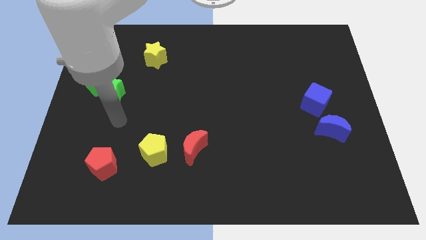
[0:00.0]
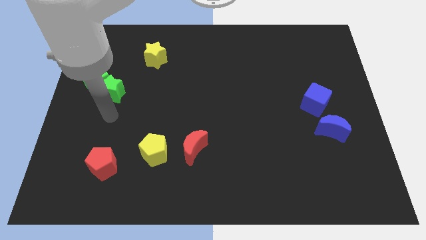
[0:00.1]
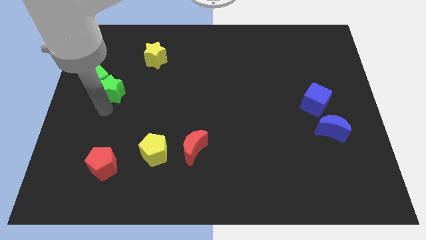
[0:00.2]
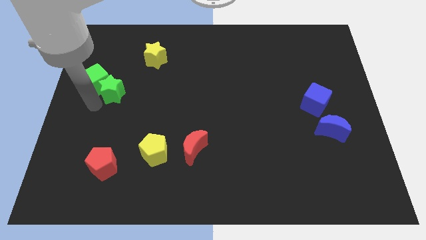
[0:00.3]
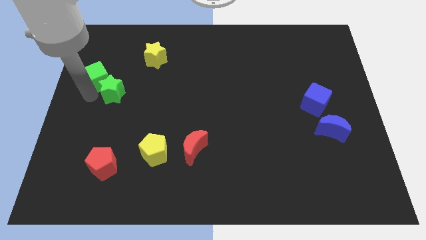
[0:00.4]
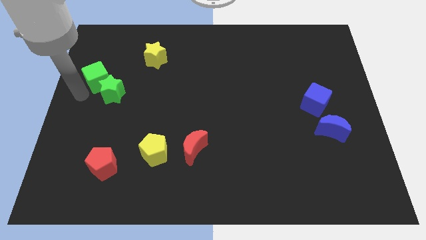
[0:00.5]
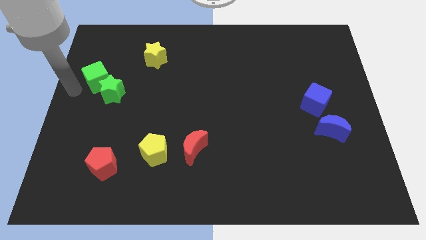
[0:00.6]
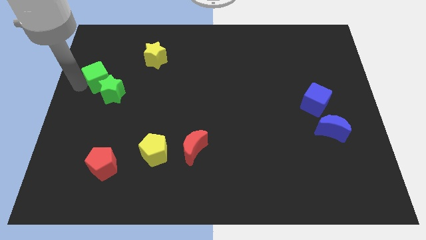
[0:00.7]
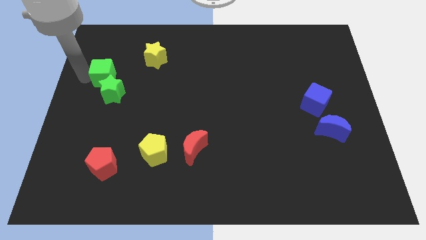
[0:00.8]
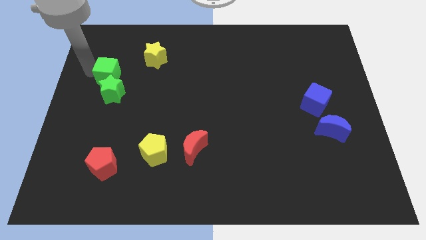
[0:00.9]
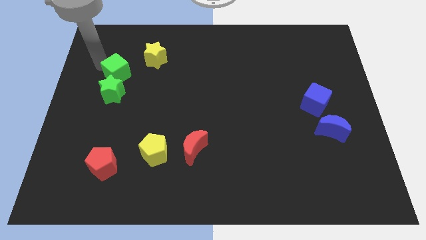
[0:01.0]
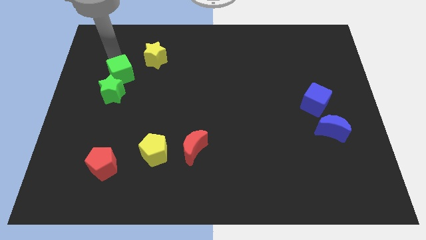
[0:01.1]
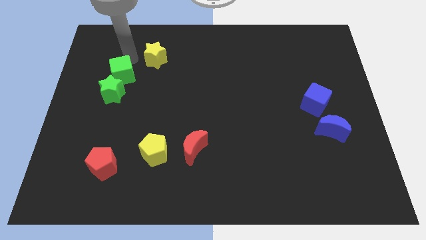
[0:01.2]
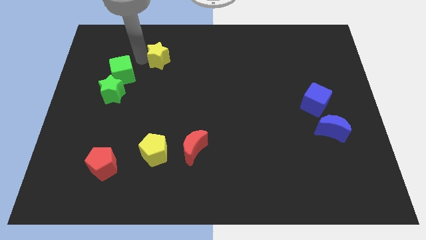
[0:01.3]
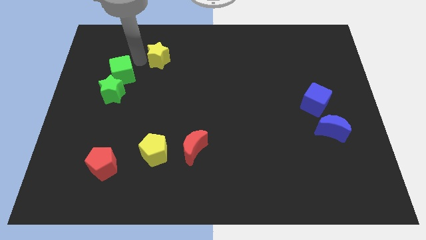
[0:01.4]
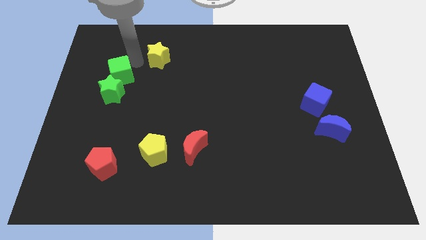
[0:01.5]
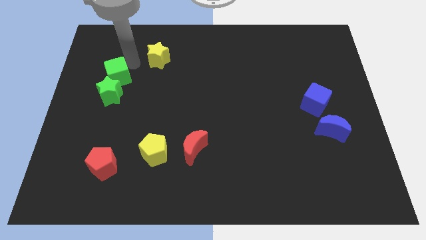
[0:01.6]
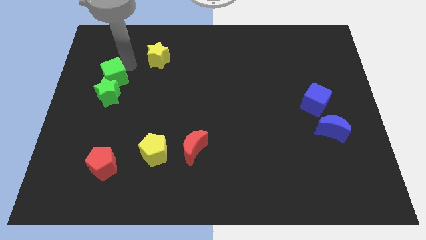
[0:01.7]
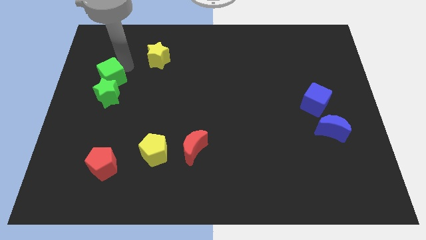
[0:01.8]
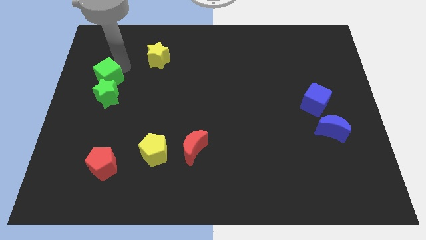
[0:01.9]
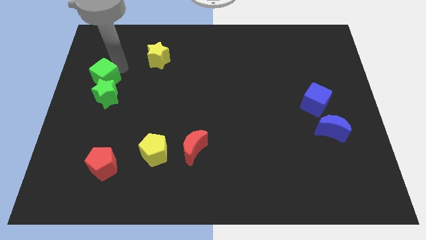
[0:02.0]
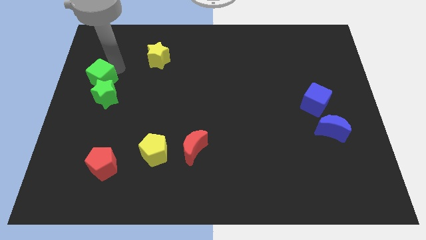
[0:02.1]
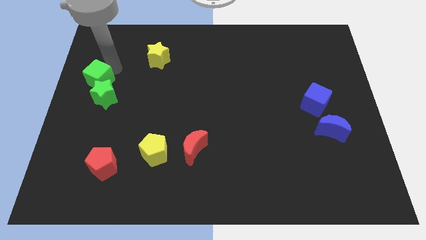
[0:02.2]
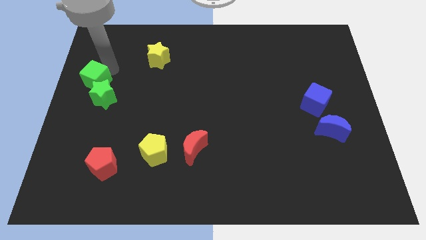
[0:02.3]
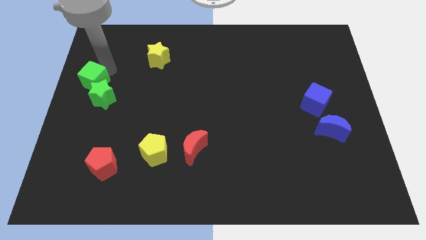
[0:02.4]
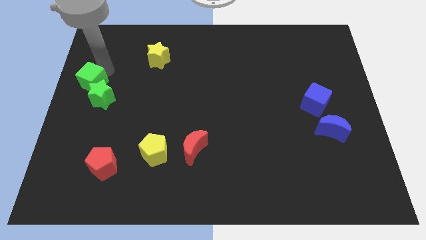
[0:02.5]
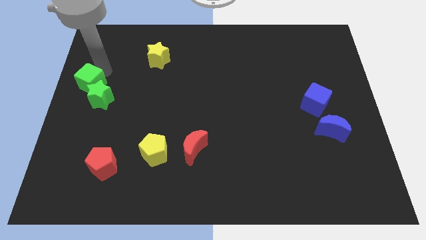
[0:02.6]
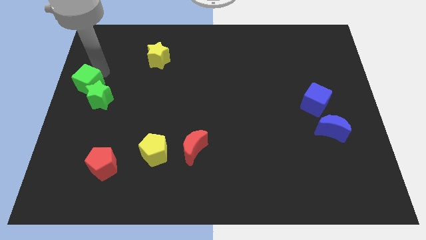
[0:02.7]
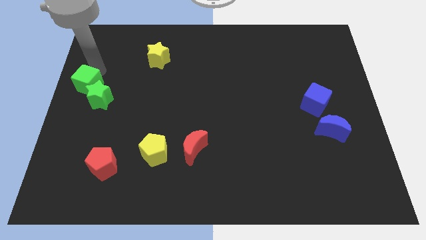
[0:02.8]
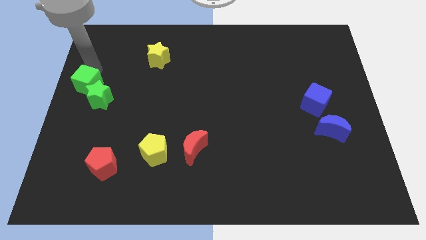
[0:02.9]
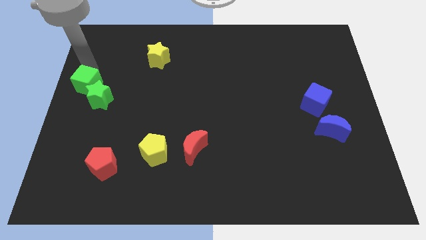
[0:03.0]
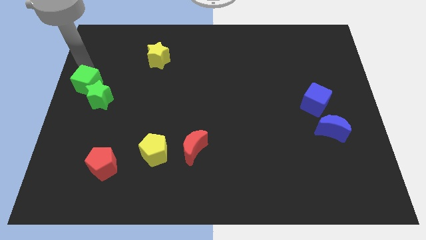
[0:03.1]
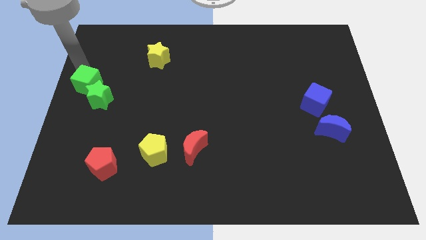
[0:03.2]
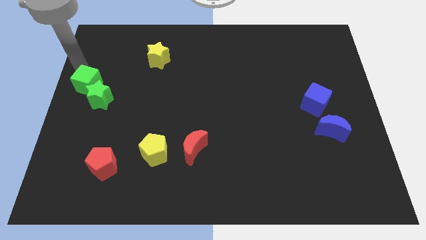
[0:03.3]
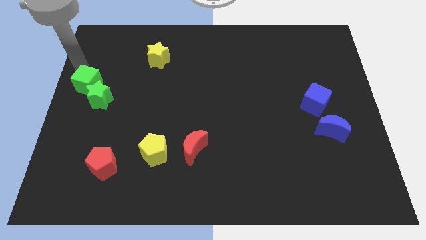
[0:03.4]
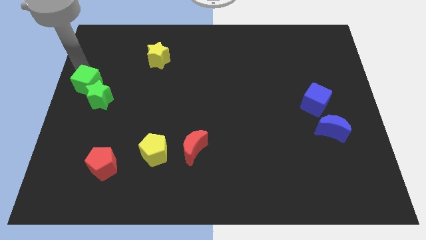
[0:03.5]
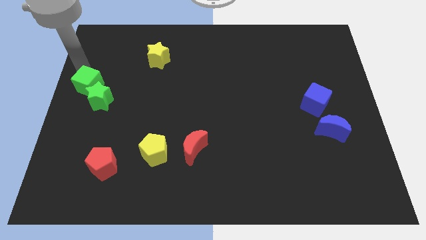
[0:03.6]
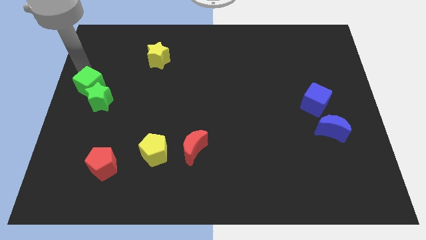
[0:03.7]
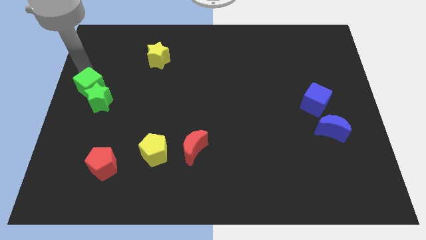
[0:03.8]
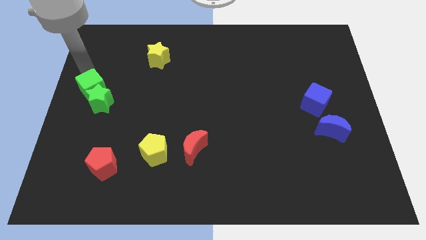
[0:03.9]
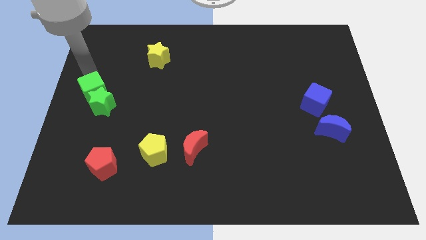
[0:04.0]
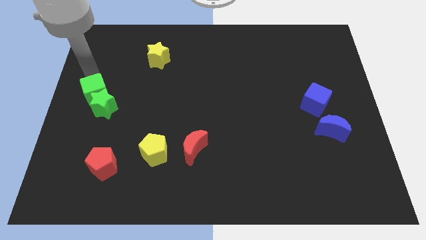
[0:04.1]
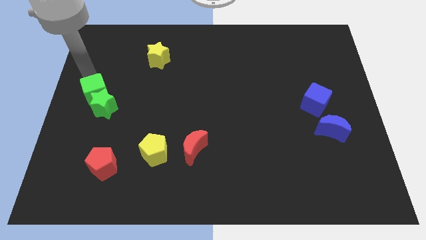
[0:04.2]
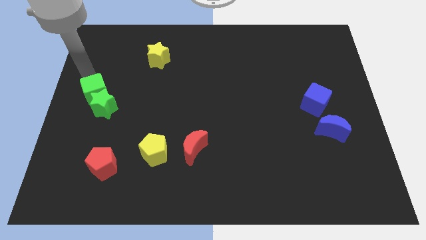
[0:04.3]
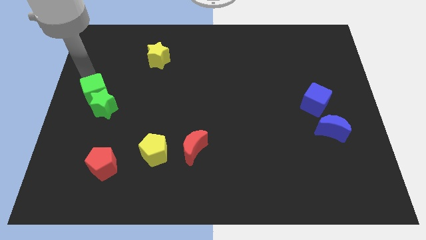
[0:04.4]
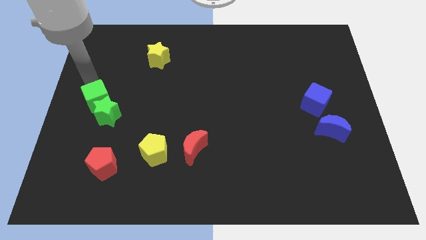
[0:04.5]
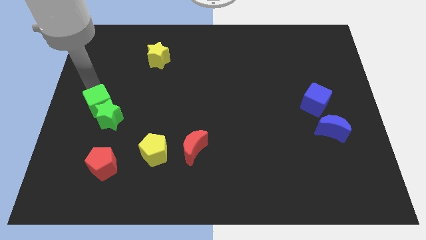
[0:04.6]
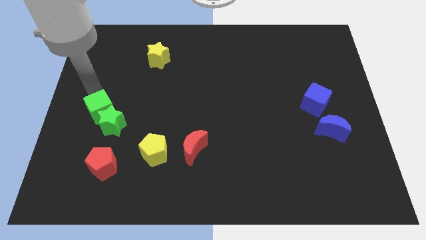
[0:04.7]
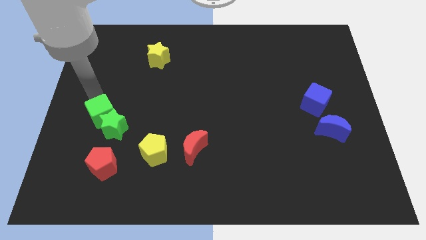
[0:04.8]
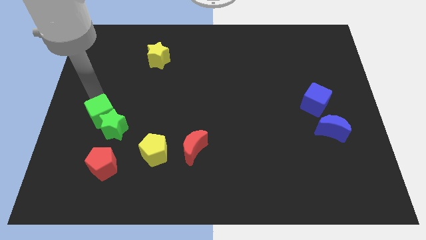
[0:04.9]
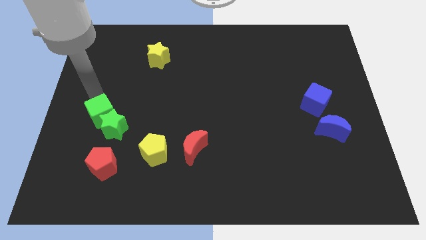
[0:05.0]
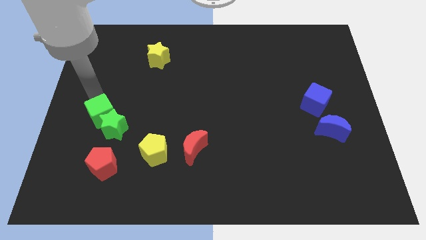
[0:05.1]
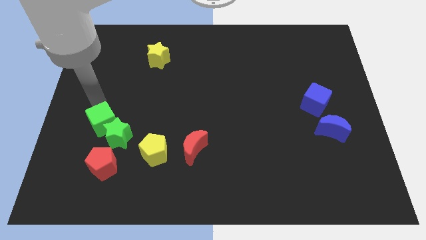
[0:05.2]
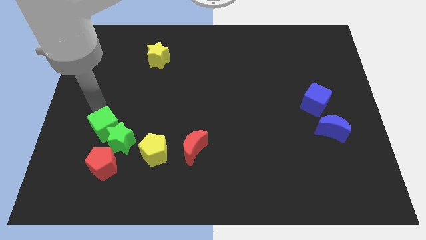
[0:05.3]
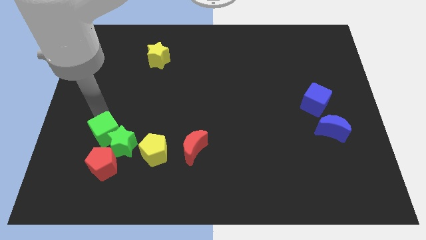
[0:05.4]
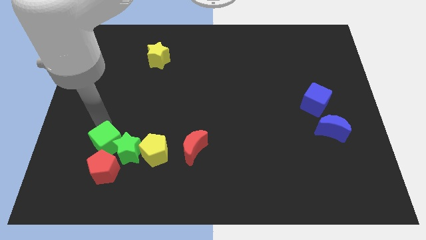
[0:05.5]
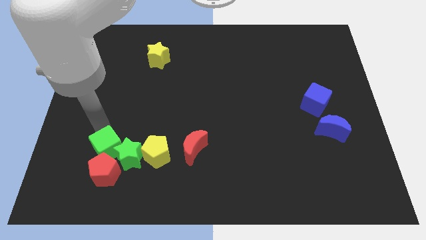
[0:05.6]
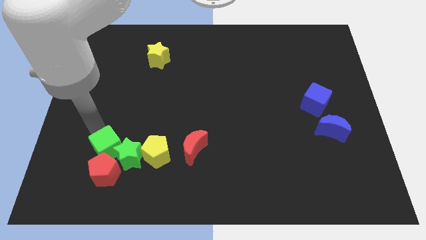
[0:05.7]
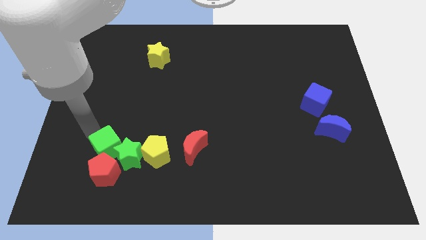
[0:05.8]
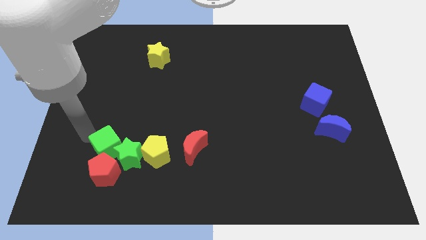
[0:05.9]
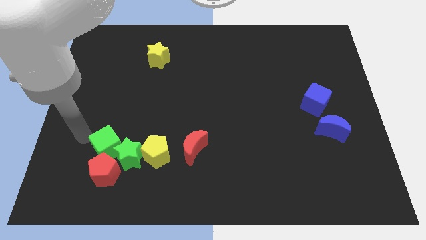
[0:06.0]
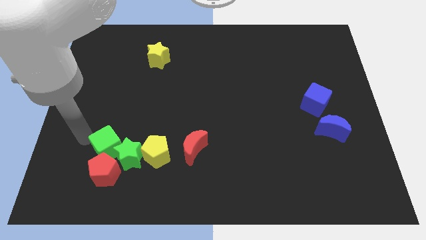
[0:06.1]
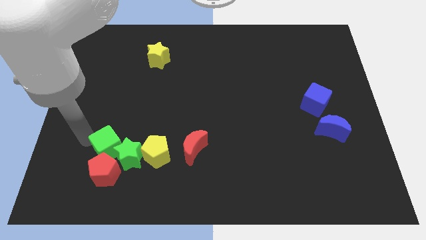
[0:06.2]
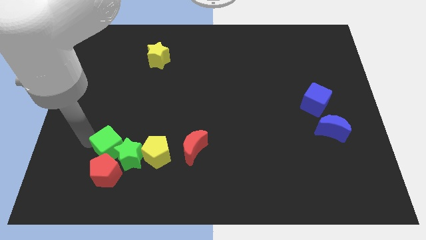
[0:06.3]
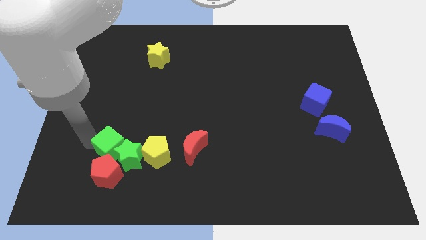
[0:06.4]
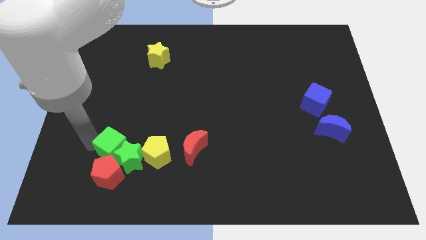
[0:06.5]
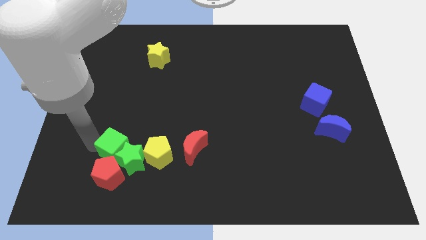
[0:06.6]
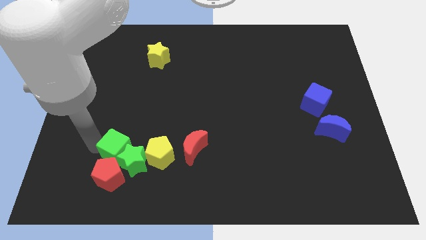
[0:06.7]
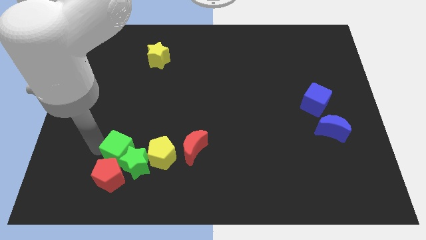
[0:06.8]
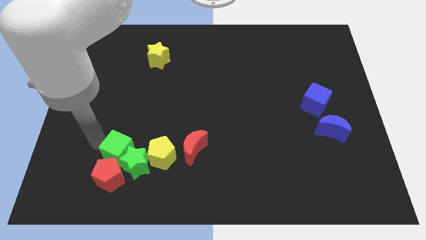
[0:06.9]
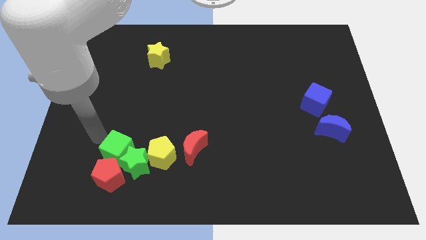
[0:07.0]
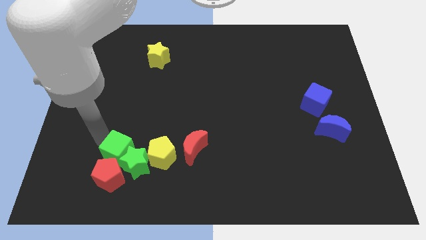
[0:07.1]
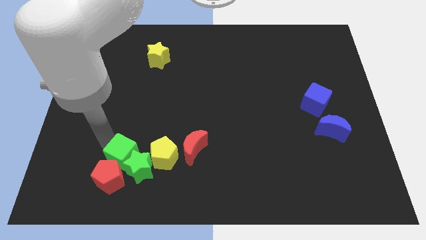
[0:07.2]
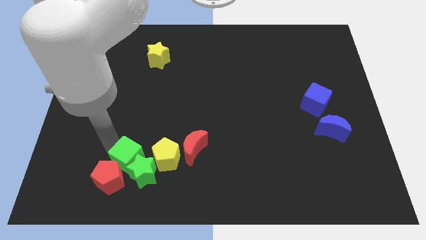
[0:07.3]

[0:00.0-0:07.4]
move the green cube downwards and to the right

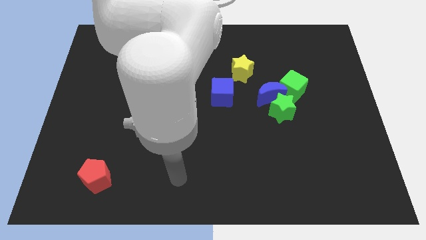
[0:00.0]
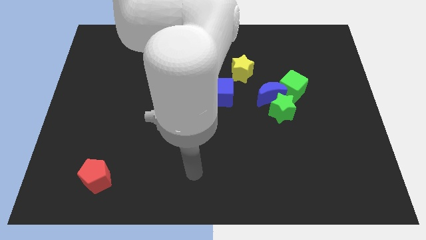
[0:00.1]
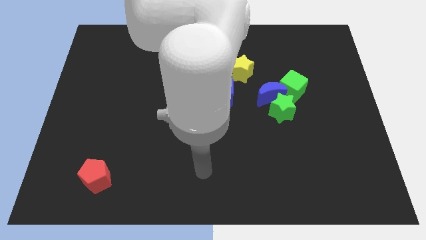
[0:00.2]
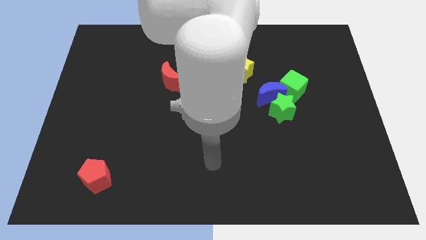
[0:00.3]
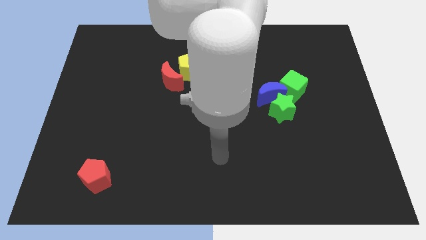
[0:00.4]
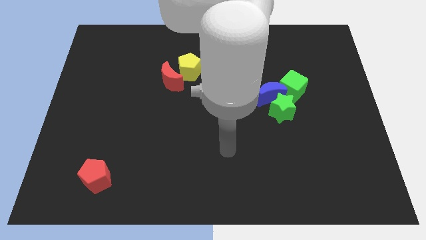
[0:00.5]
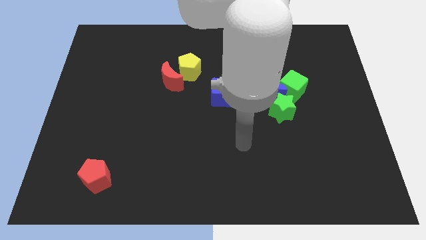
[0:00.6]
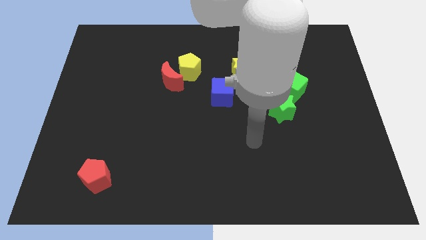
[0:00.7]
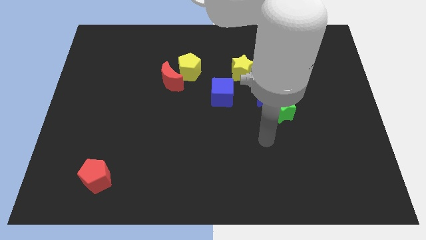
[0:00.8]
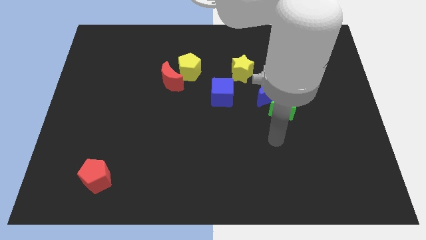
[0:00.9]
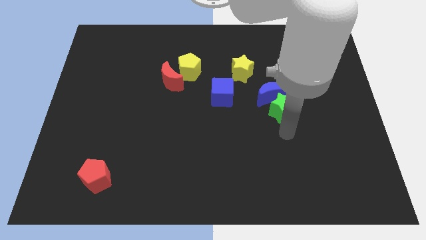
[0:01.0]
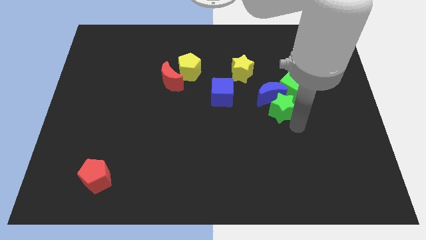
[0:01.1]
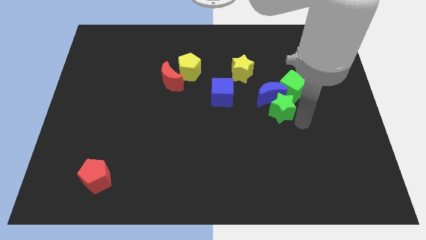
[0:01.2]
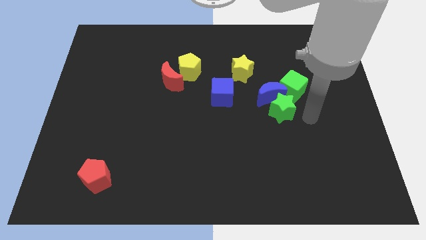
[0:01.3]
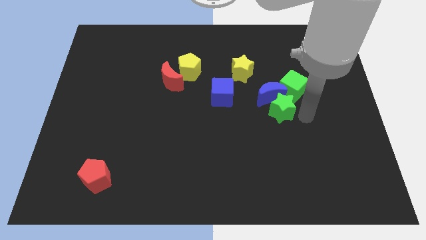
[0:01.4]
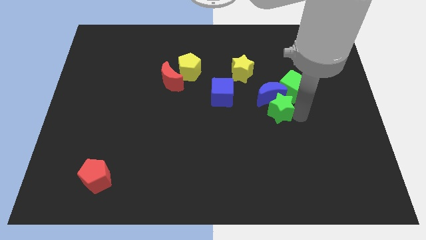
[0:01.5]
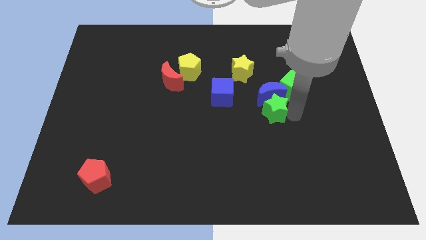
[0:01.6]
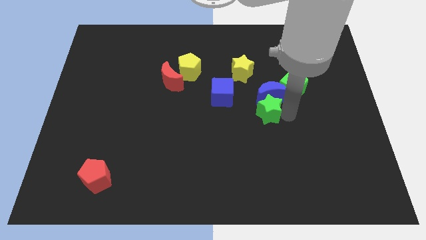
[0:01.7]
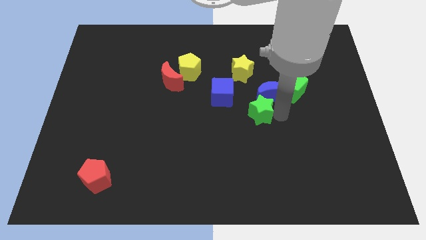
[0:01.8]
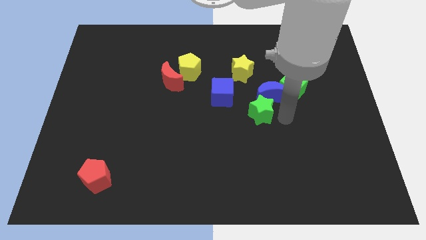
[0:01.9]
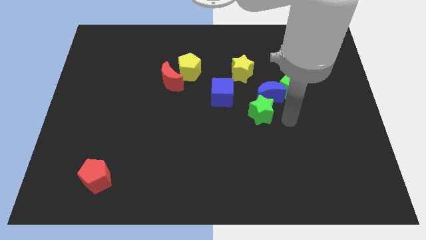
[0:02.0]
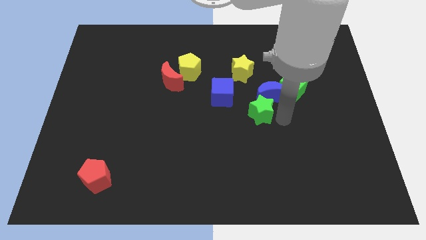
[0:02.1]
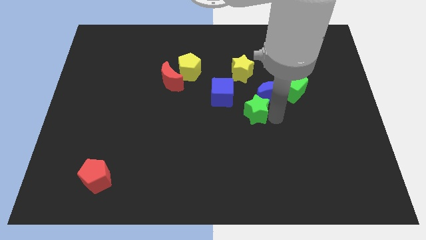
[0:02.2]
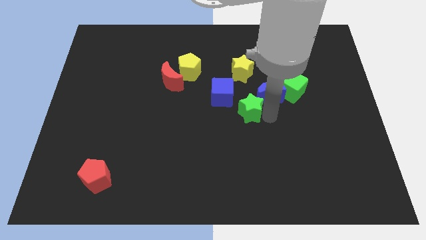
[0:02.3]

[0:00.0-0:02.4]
move the green star to the left slightly
